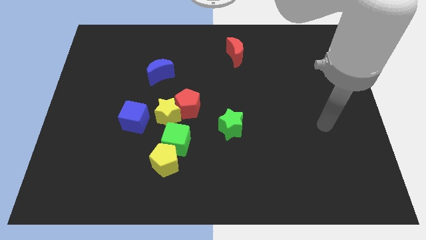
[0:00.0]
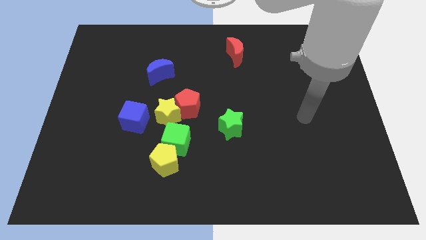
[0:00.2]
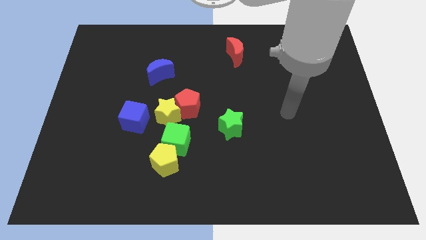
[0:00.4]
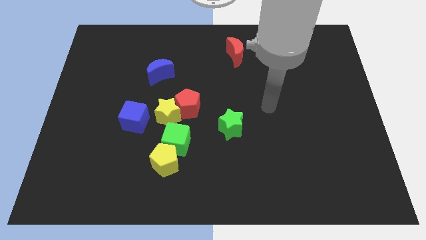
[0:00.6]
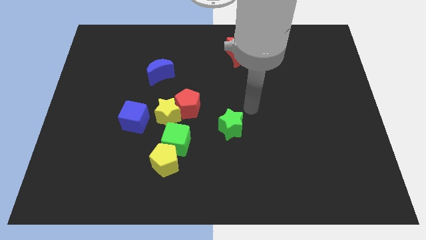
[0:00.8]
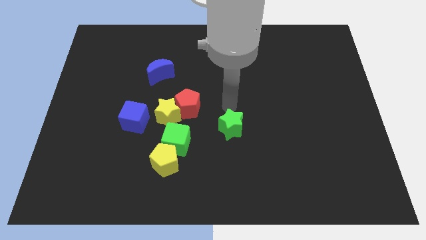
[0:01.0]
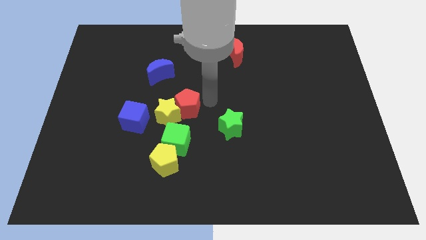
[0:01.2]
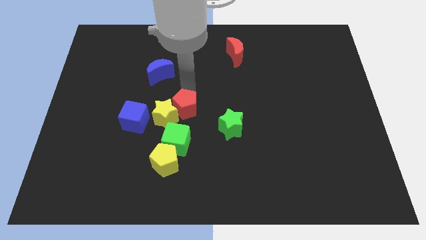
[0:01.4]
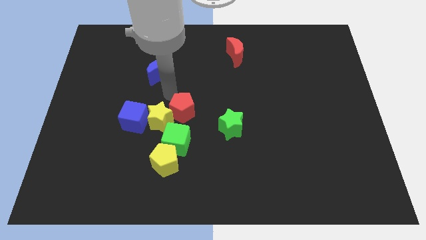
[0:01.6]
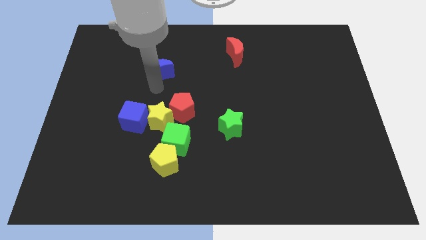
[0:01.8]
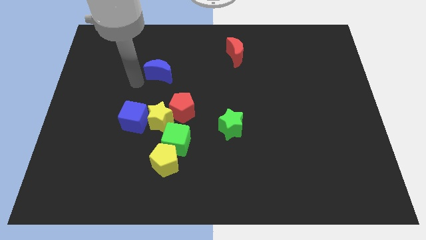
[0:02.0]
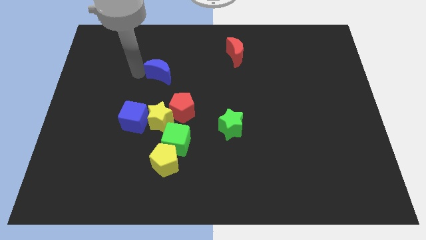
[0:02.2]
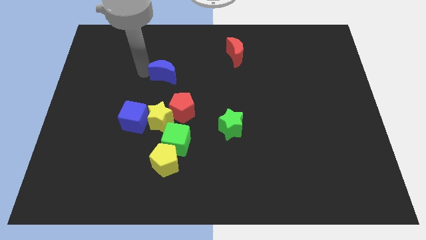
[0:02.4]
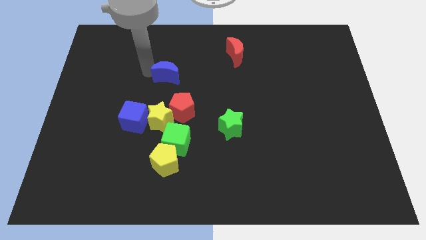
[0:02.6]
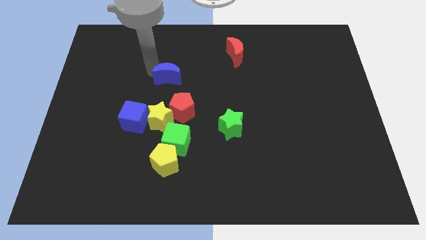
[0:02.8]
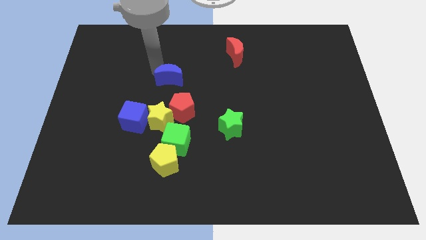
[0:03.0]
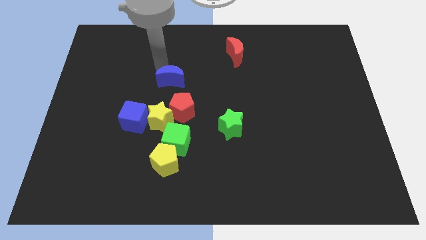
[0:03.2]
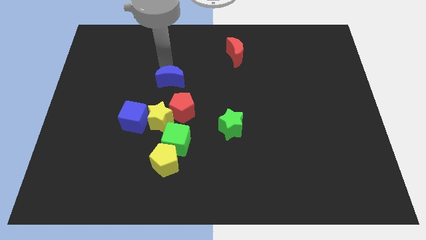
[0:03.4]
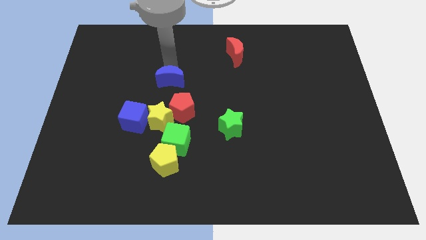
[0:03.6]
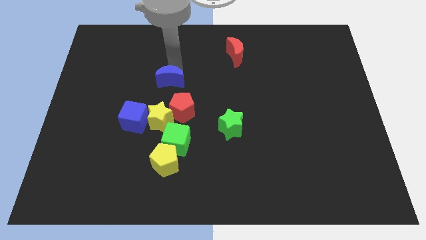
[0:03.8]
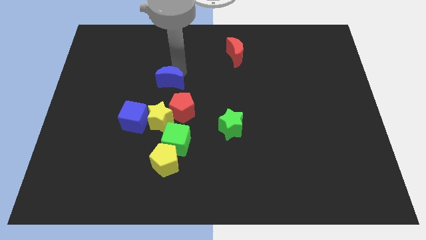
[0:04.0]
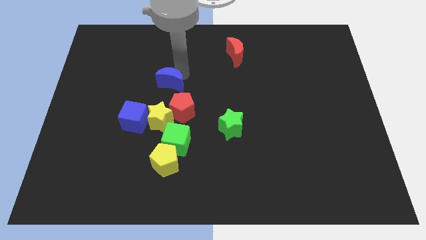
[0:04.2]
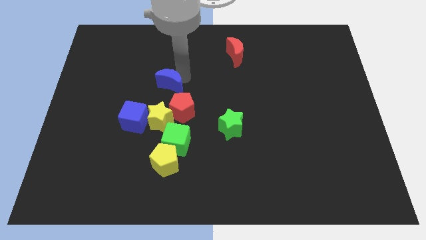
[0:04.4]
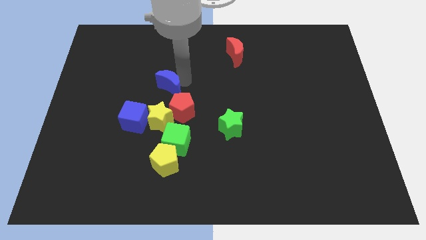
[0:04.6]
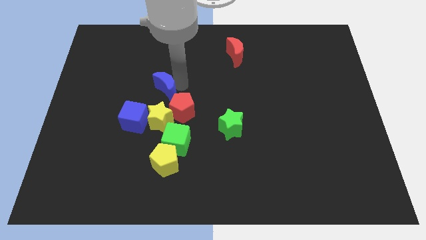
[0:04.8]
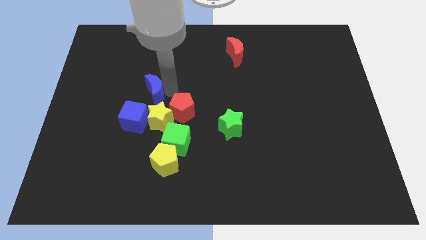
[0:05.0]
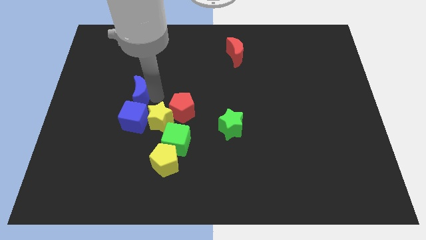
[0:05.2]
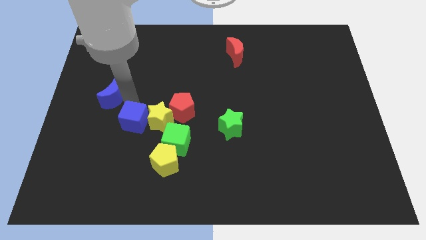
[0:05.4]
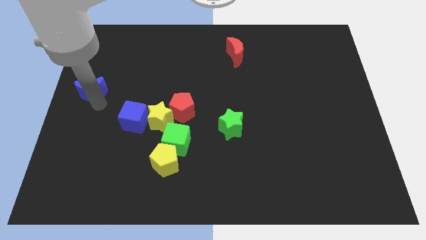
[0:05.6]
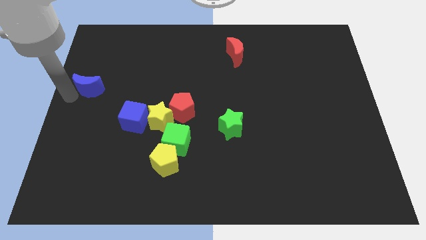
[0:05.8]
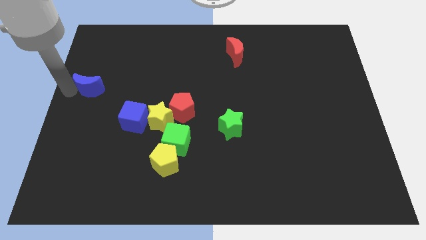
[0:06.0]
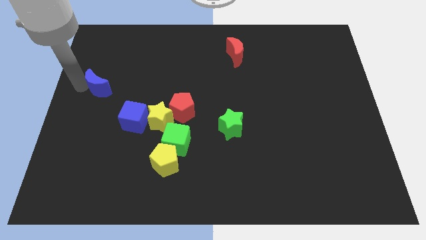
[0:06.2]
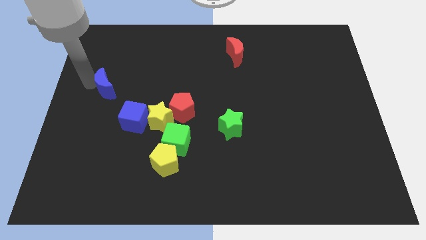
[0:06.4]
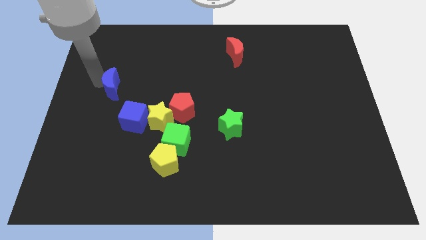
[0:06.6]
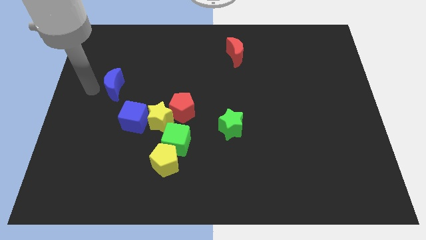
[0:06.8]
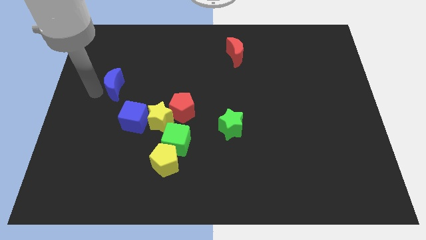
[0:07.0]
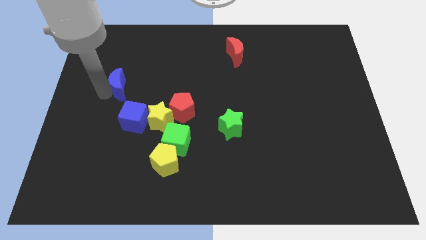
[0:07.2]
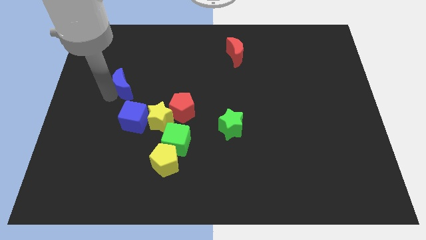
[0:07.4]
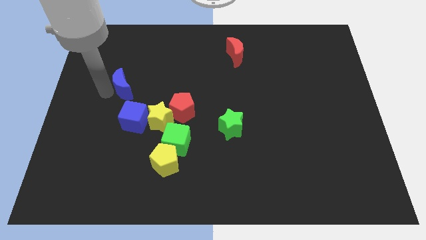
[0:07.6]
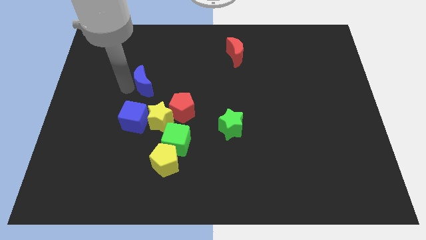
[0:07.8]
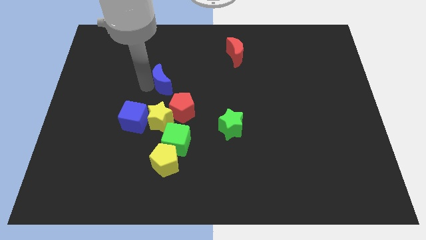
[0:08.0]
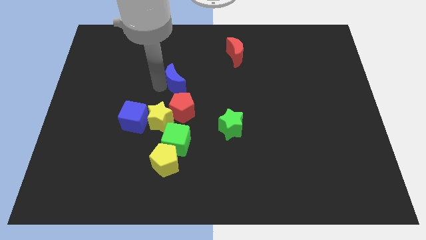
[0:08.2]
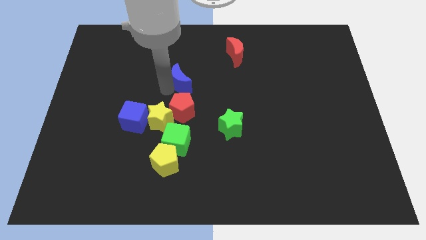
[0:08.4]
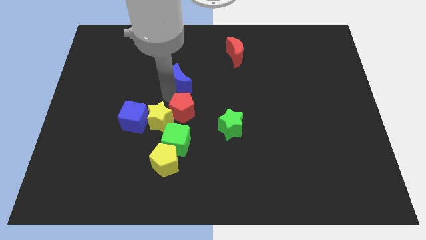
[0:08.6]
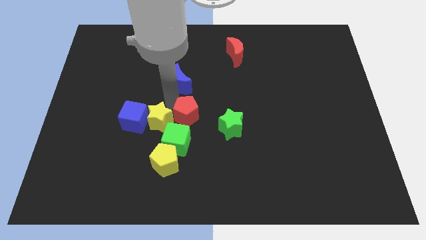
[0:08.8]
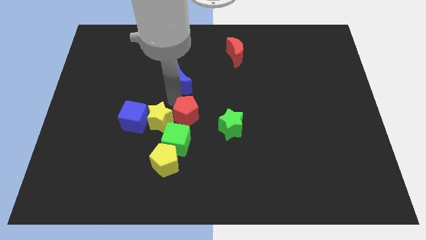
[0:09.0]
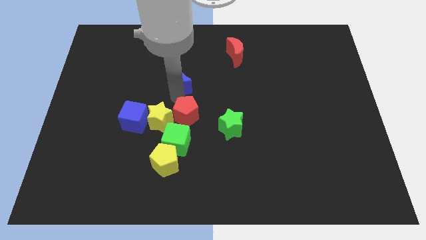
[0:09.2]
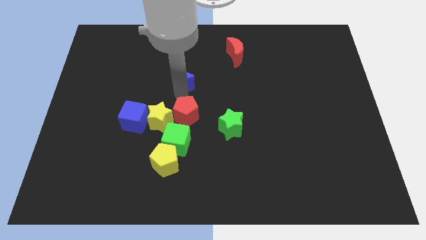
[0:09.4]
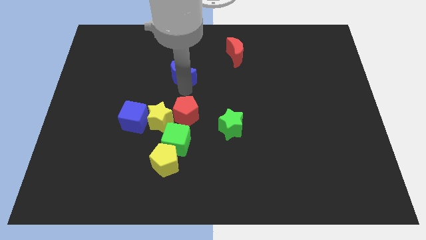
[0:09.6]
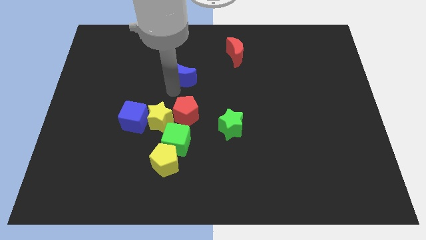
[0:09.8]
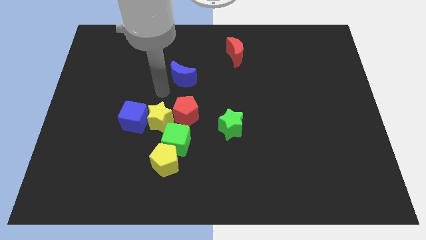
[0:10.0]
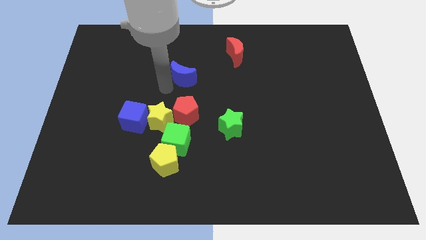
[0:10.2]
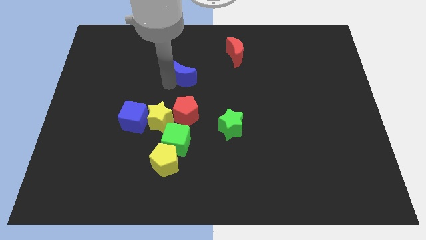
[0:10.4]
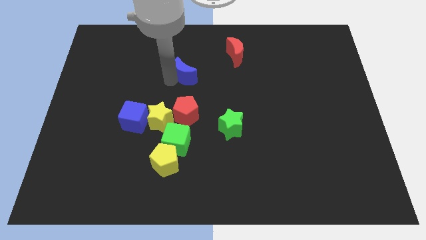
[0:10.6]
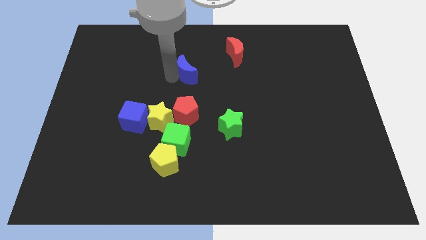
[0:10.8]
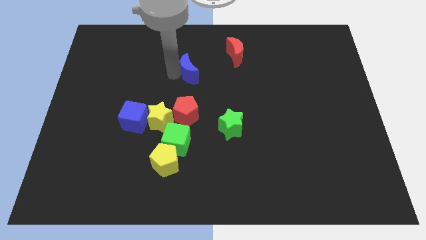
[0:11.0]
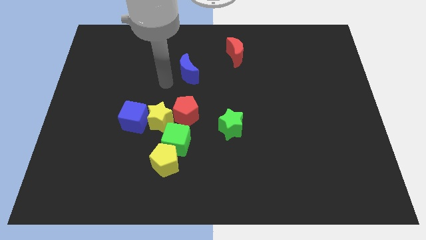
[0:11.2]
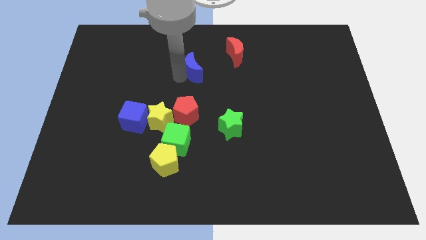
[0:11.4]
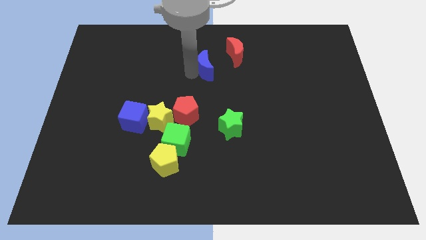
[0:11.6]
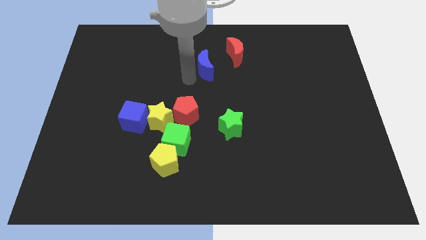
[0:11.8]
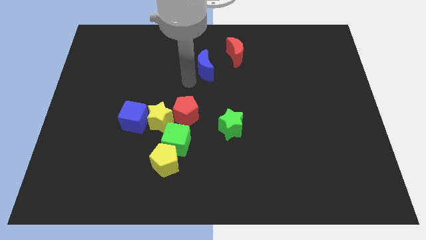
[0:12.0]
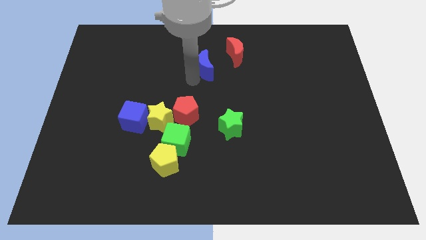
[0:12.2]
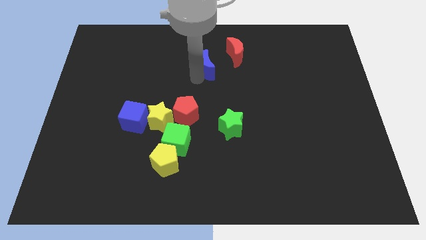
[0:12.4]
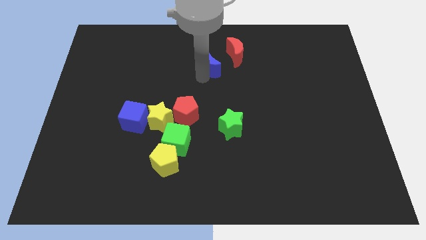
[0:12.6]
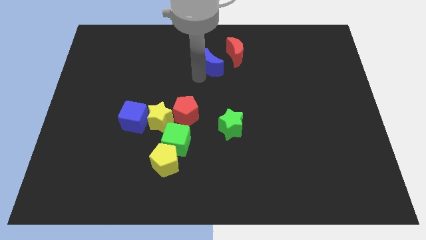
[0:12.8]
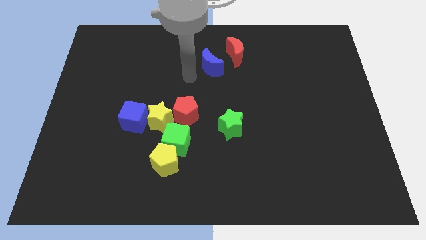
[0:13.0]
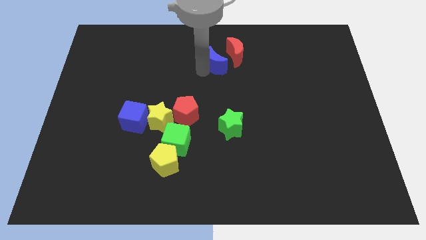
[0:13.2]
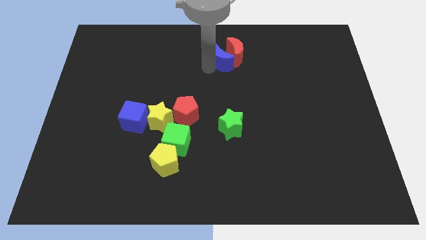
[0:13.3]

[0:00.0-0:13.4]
put the blue moon towards the red moon

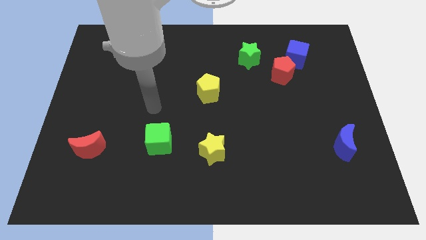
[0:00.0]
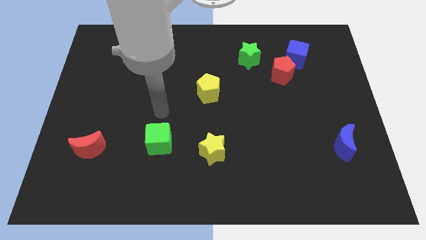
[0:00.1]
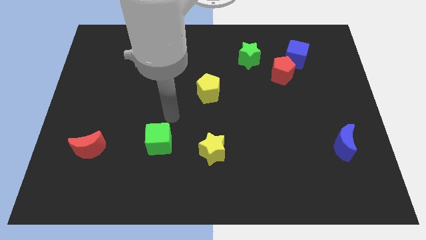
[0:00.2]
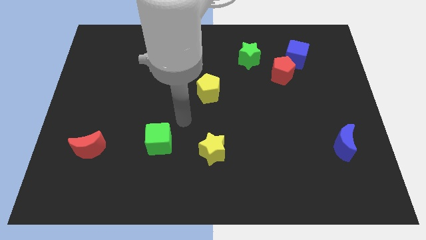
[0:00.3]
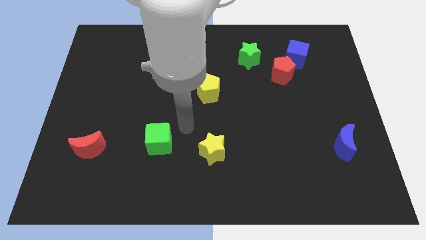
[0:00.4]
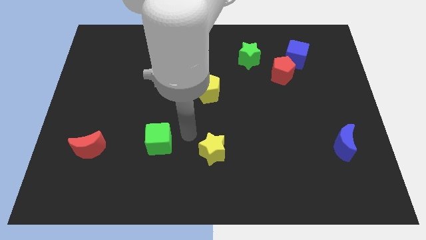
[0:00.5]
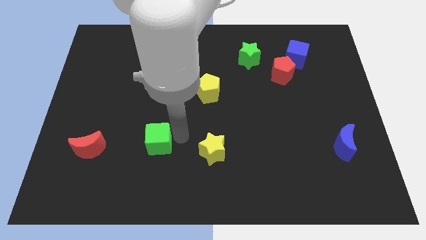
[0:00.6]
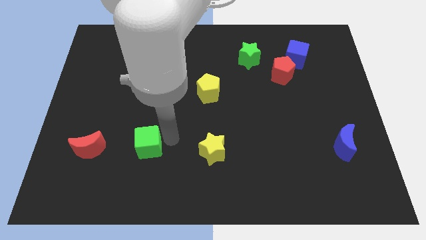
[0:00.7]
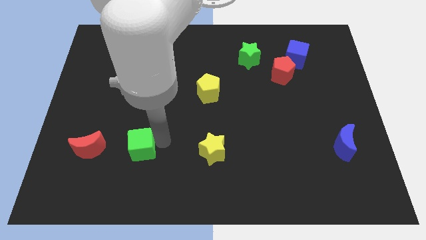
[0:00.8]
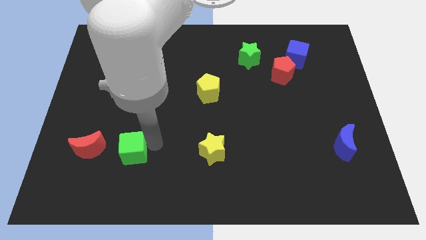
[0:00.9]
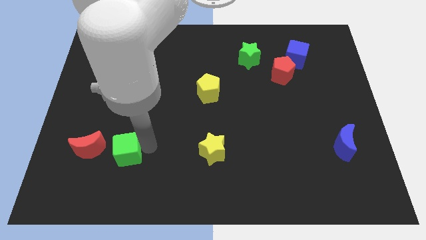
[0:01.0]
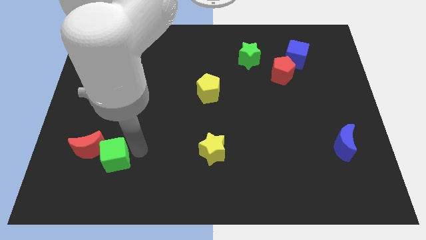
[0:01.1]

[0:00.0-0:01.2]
move the green cube close to the red moon

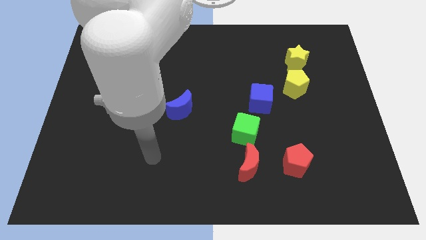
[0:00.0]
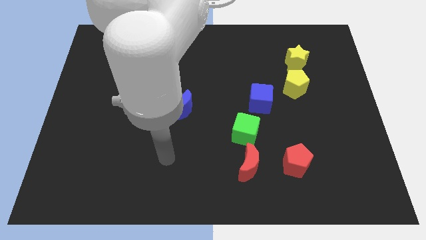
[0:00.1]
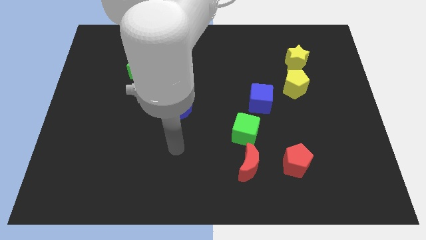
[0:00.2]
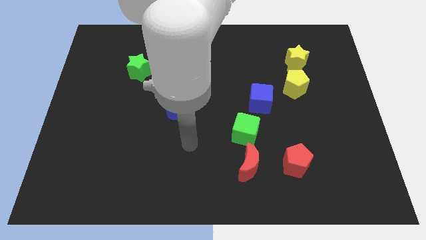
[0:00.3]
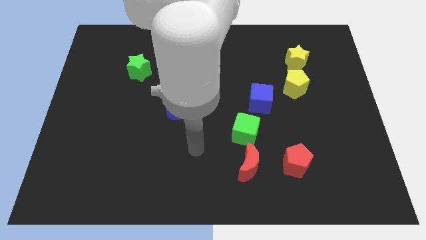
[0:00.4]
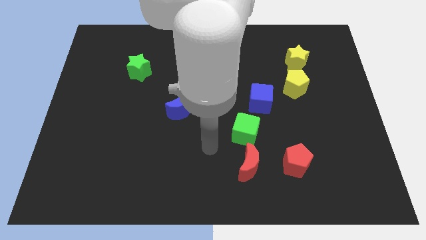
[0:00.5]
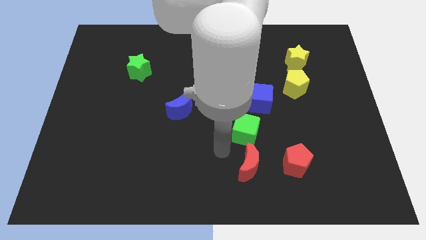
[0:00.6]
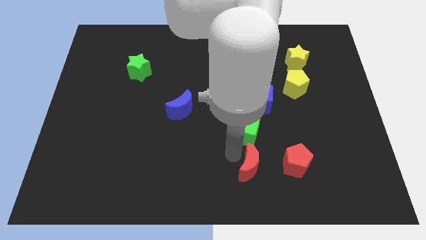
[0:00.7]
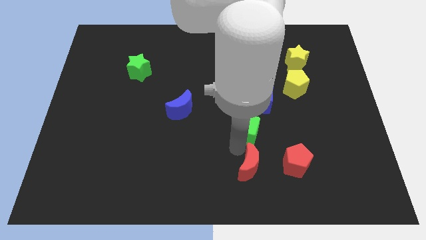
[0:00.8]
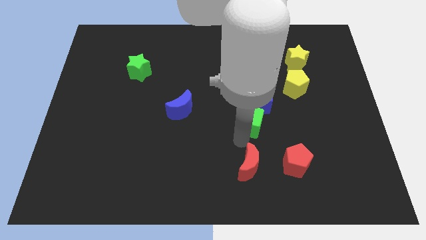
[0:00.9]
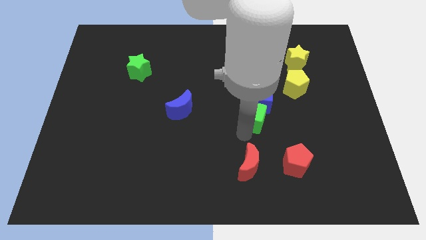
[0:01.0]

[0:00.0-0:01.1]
move the green cube close to the blue cube
